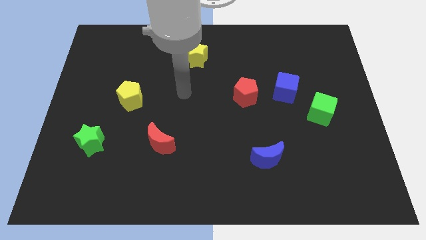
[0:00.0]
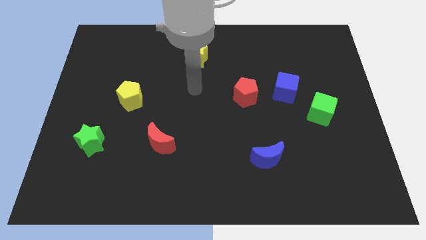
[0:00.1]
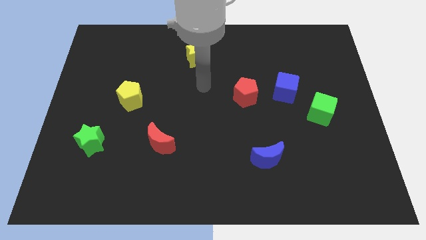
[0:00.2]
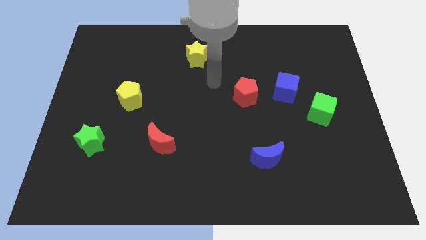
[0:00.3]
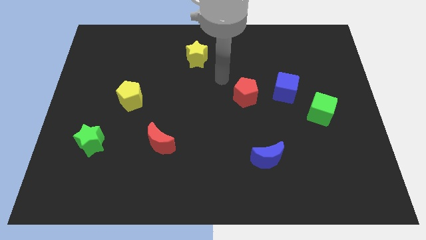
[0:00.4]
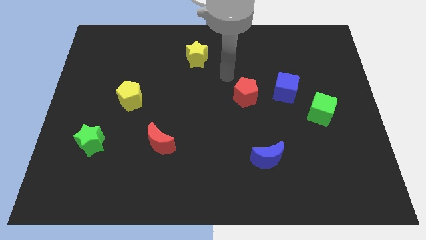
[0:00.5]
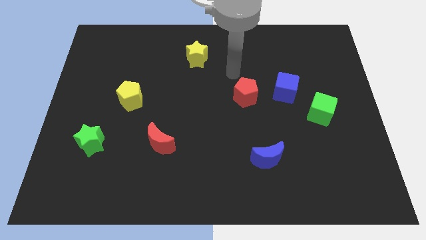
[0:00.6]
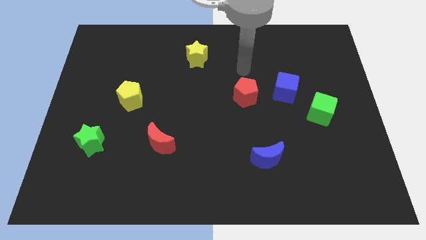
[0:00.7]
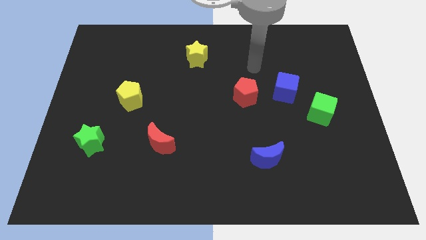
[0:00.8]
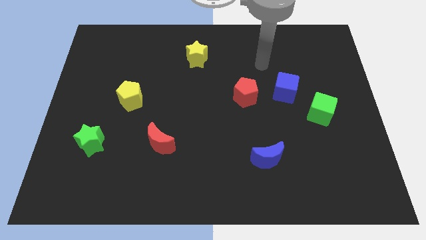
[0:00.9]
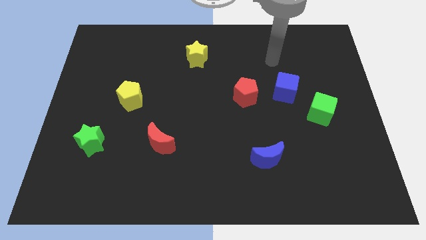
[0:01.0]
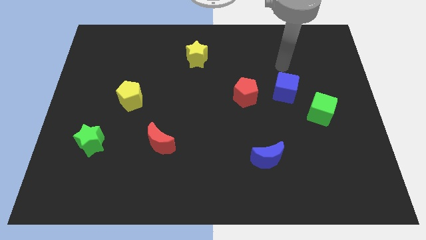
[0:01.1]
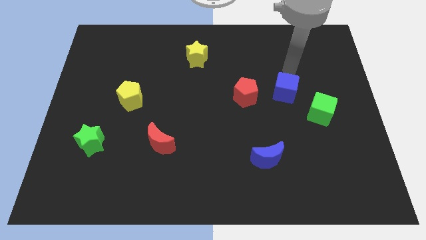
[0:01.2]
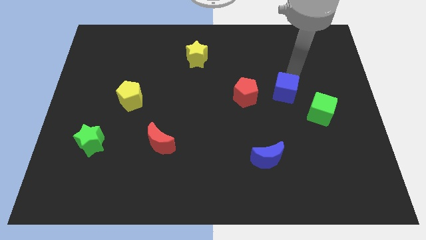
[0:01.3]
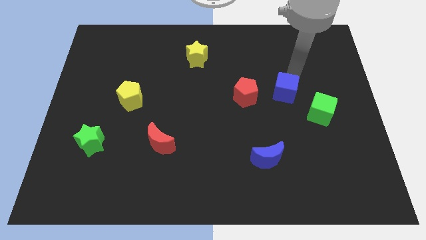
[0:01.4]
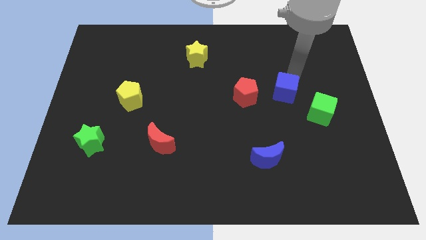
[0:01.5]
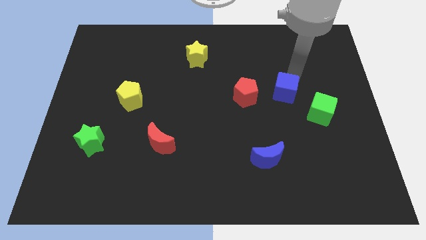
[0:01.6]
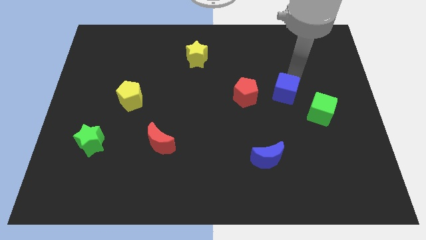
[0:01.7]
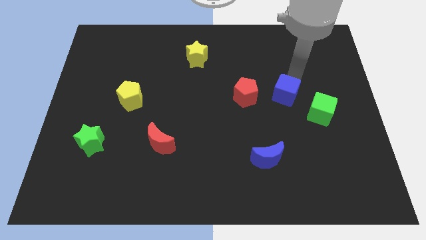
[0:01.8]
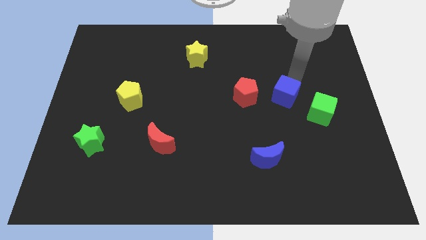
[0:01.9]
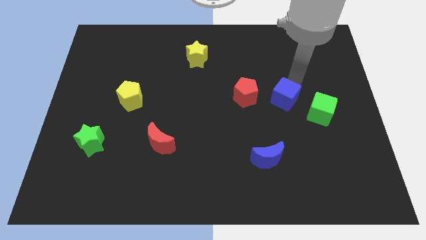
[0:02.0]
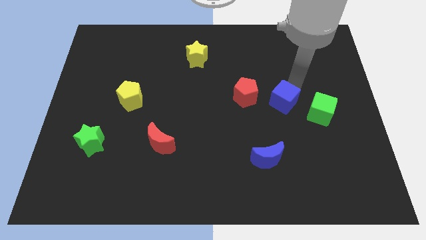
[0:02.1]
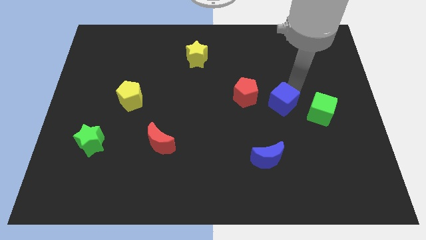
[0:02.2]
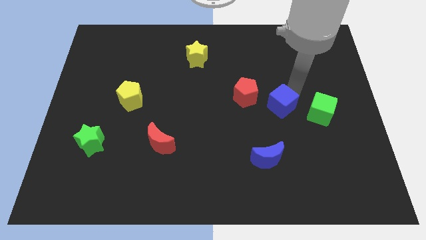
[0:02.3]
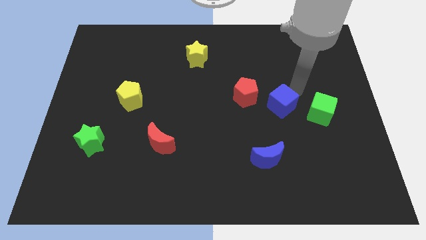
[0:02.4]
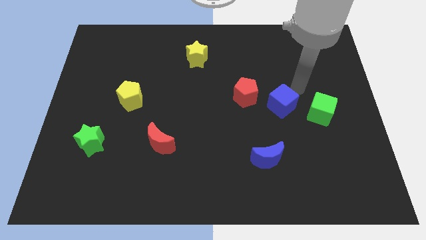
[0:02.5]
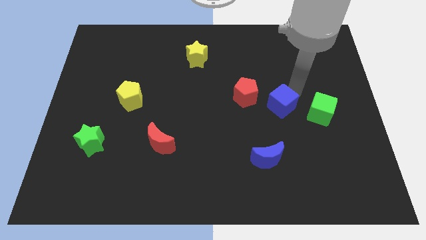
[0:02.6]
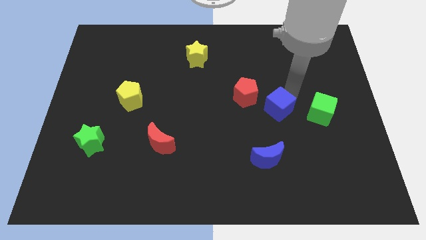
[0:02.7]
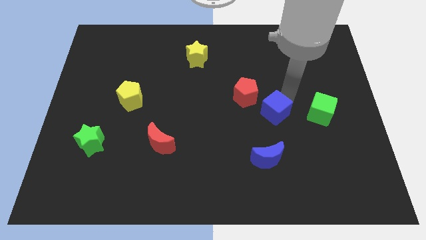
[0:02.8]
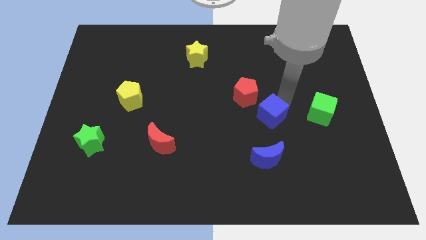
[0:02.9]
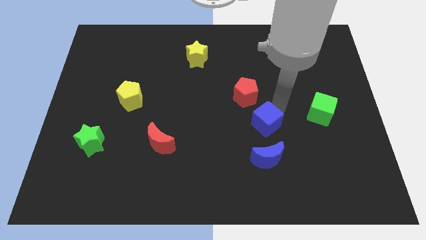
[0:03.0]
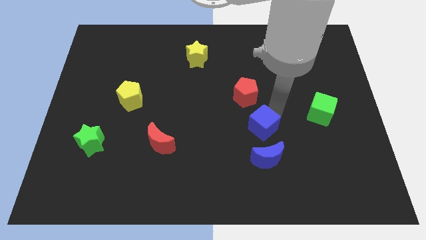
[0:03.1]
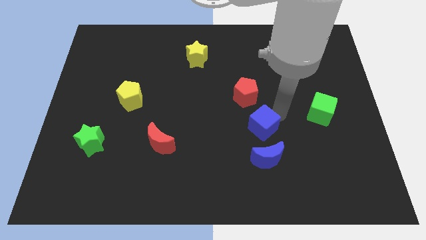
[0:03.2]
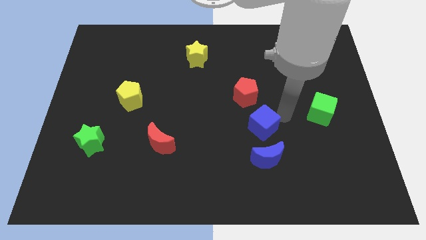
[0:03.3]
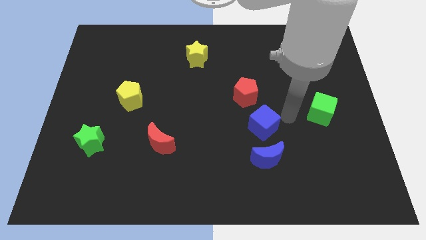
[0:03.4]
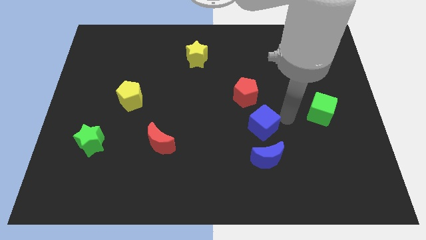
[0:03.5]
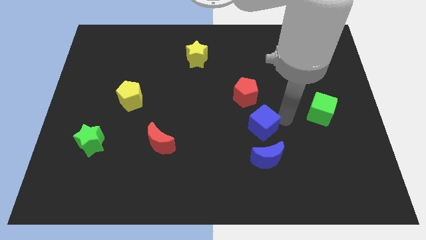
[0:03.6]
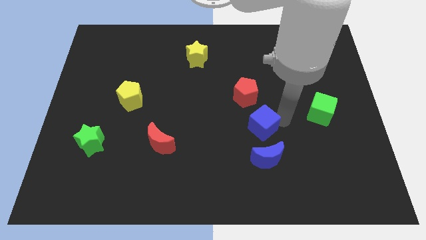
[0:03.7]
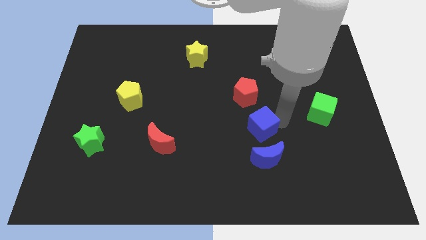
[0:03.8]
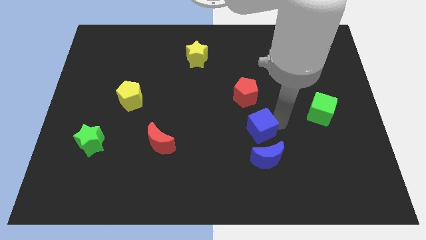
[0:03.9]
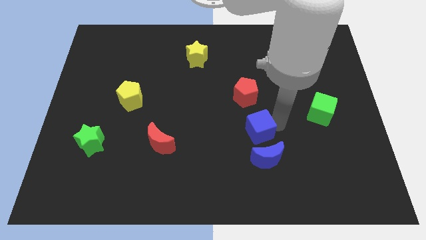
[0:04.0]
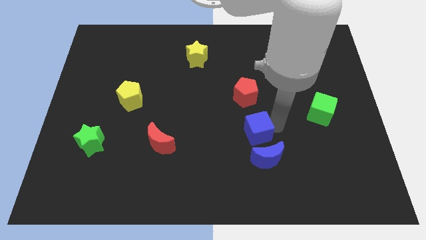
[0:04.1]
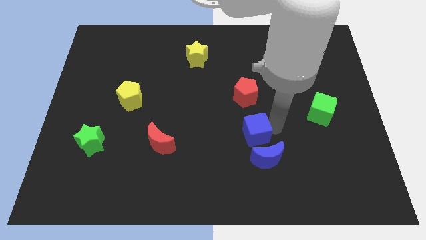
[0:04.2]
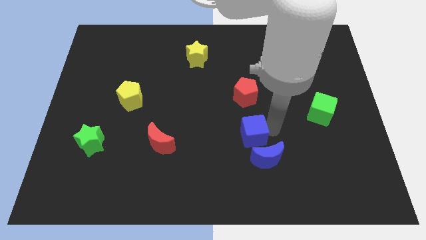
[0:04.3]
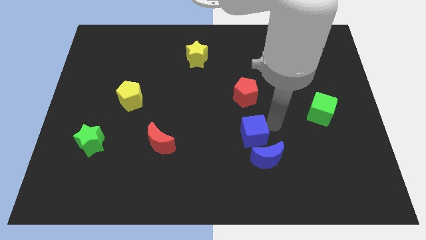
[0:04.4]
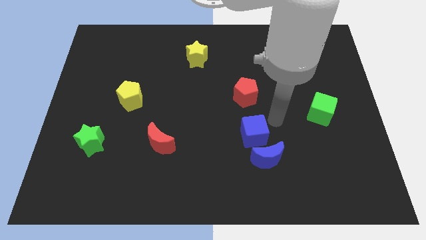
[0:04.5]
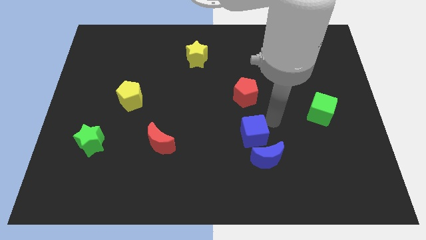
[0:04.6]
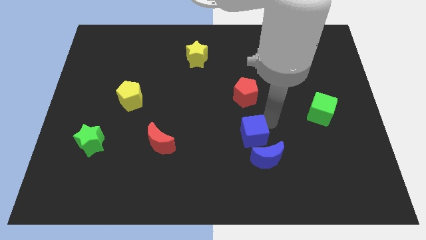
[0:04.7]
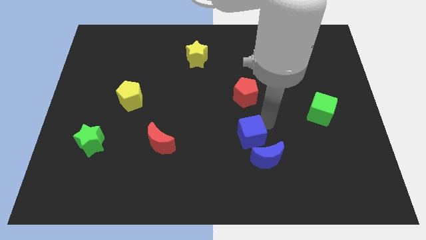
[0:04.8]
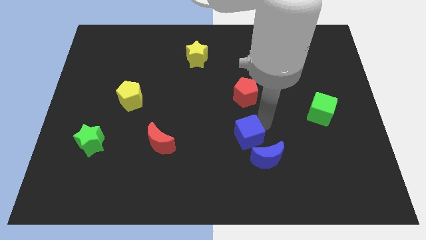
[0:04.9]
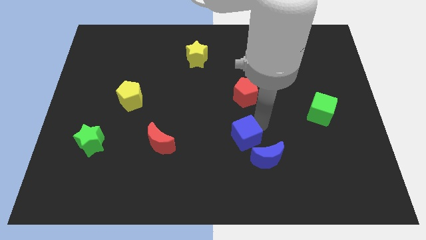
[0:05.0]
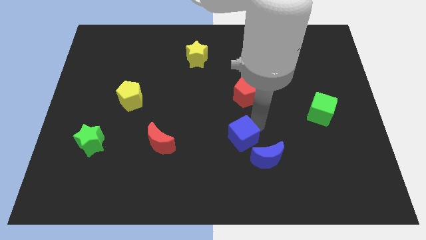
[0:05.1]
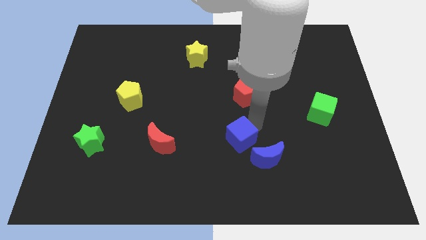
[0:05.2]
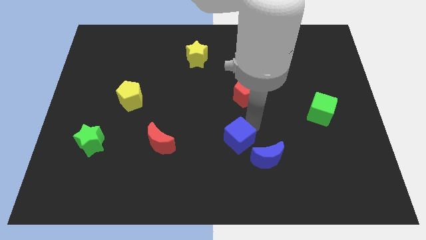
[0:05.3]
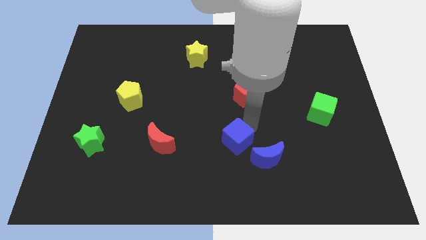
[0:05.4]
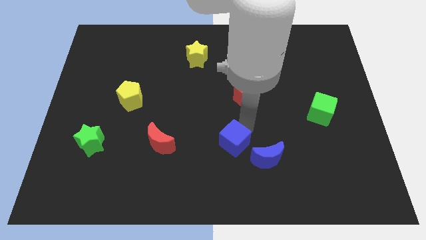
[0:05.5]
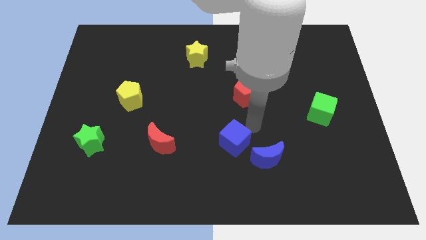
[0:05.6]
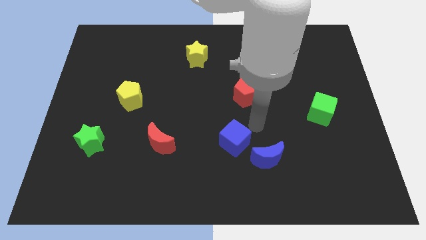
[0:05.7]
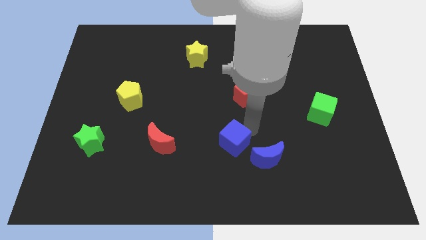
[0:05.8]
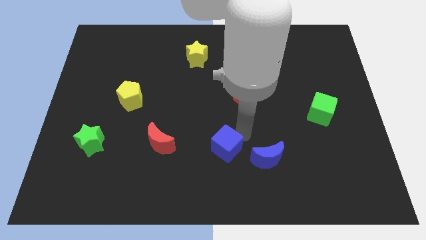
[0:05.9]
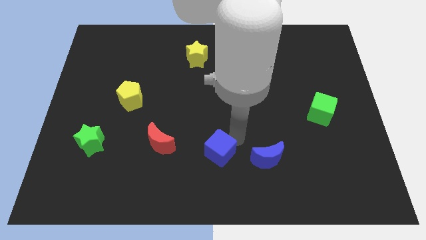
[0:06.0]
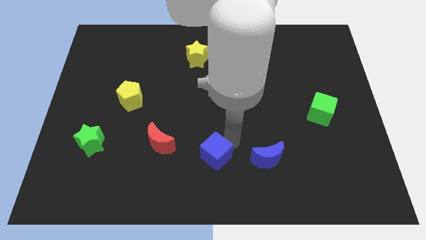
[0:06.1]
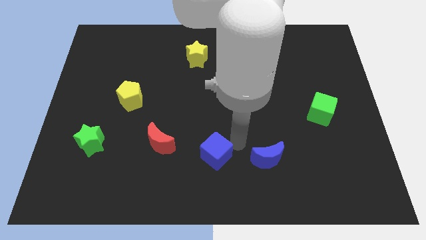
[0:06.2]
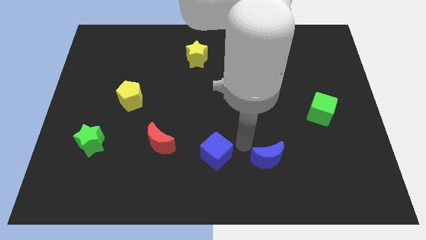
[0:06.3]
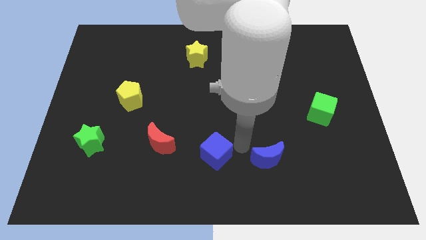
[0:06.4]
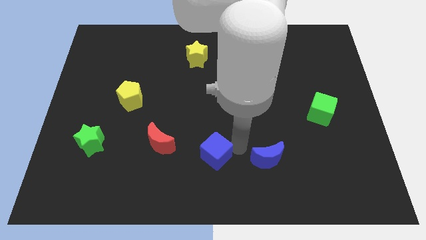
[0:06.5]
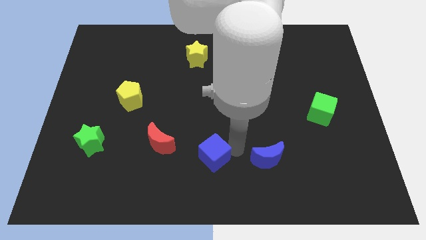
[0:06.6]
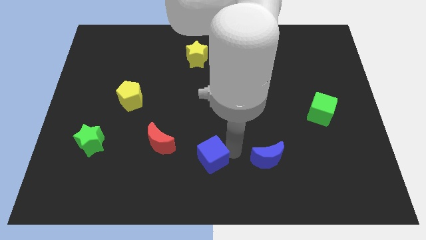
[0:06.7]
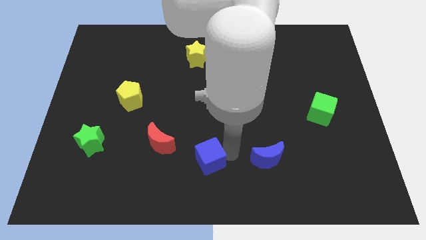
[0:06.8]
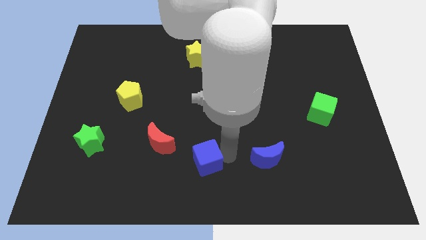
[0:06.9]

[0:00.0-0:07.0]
slide the blue cube to the bottom right side of the red moon

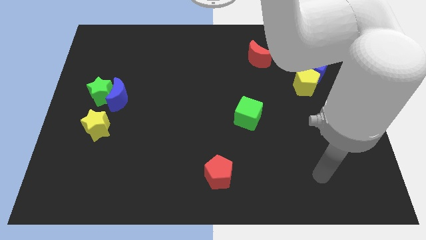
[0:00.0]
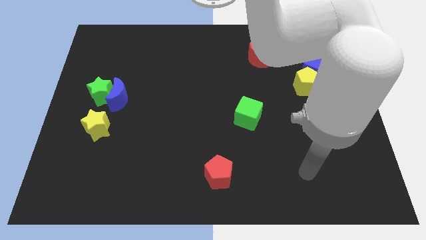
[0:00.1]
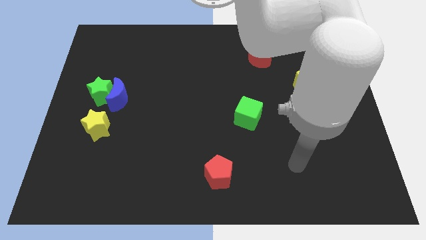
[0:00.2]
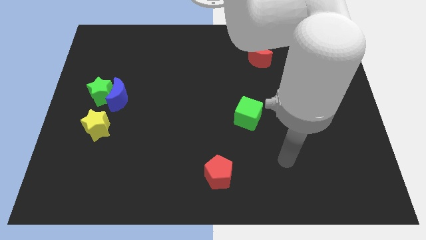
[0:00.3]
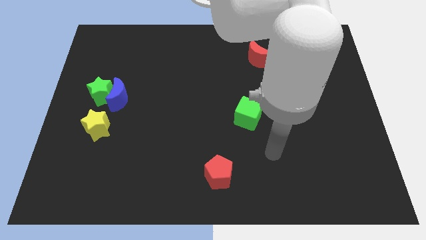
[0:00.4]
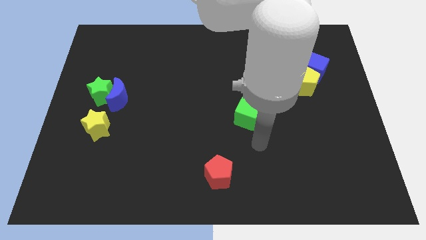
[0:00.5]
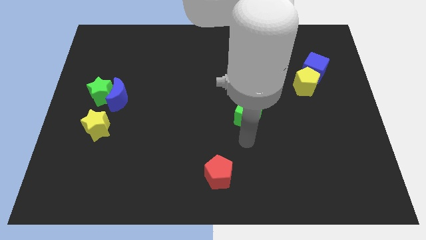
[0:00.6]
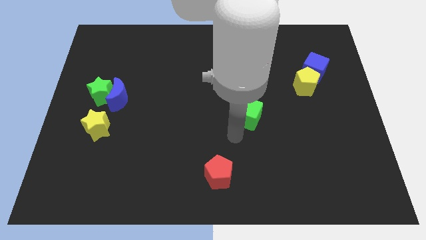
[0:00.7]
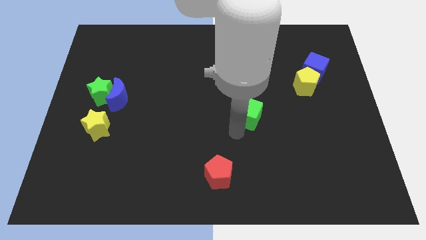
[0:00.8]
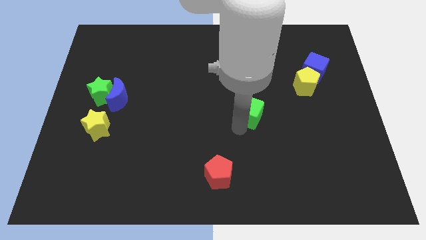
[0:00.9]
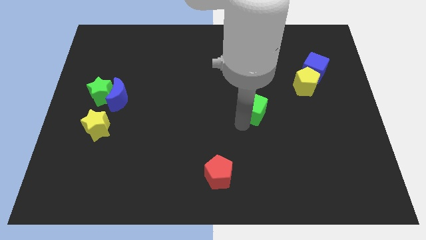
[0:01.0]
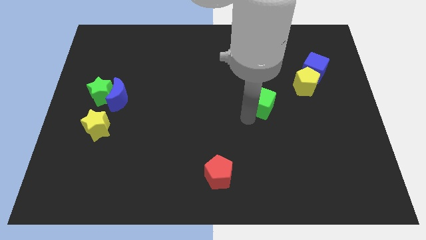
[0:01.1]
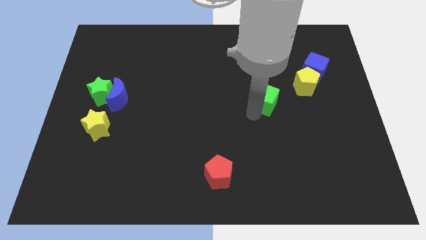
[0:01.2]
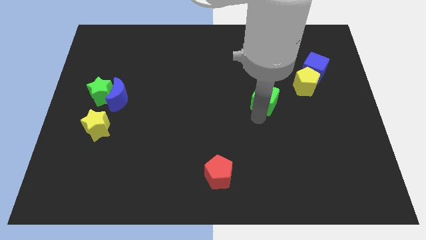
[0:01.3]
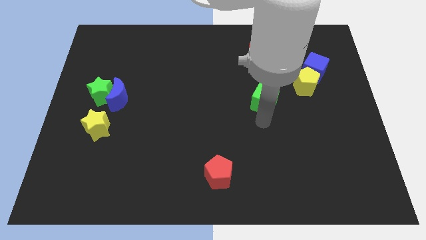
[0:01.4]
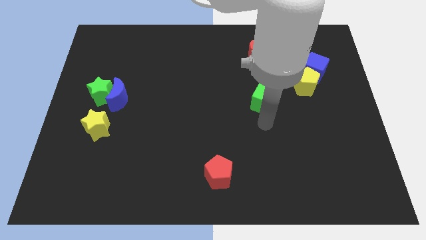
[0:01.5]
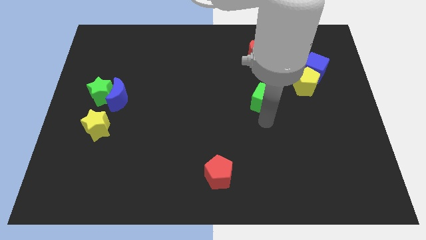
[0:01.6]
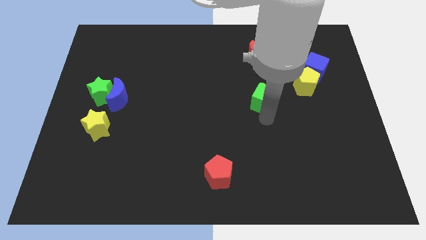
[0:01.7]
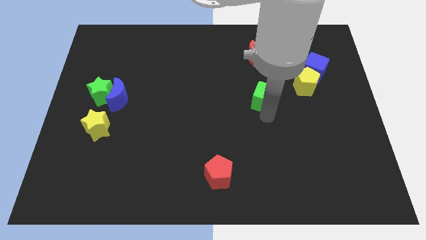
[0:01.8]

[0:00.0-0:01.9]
slide the green cube to the left of the yellow pentagon
